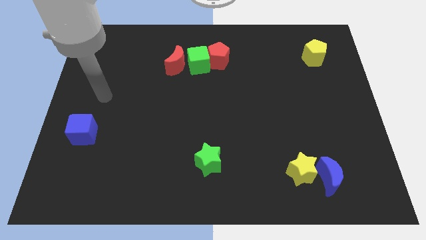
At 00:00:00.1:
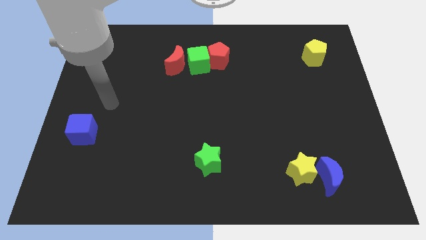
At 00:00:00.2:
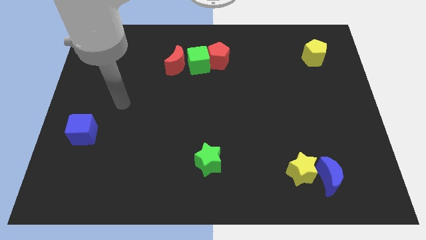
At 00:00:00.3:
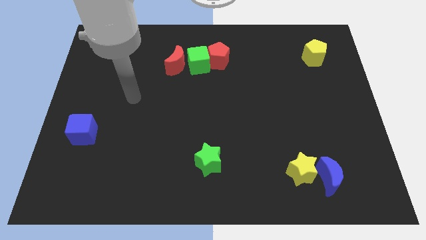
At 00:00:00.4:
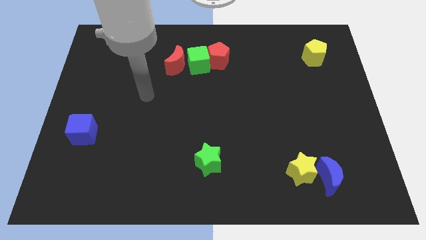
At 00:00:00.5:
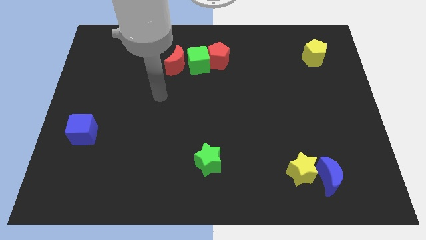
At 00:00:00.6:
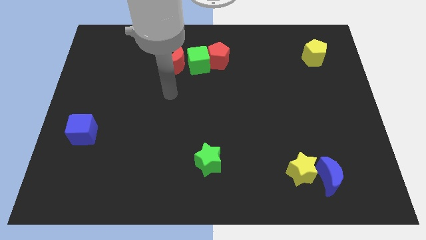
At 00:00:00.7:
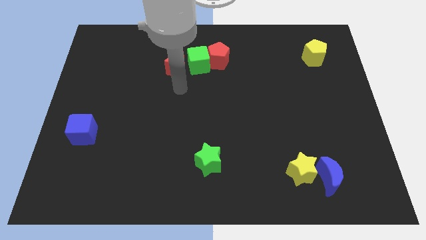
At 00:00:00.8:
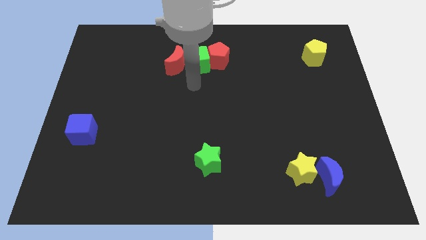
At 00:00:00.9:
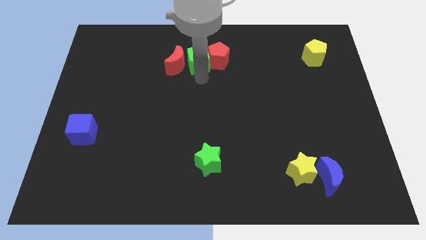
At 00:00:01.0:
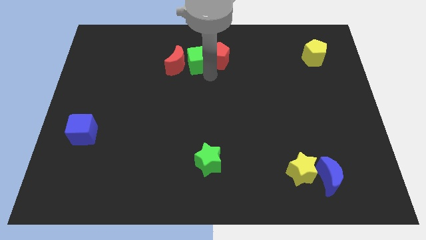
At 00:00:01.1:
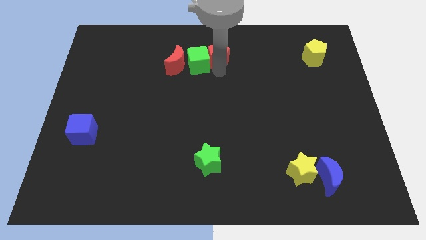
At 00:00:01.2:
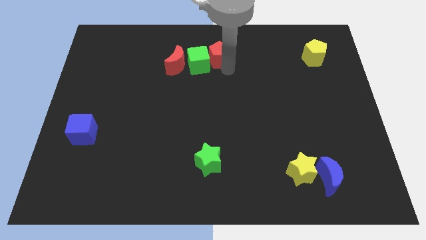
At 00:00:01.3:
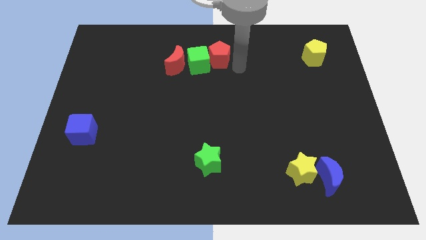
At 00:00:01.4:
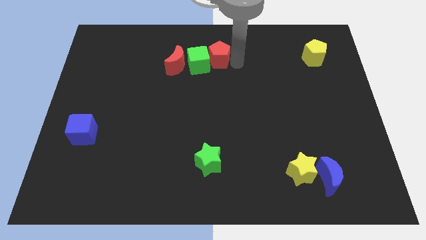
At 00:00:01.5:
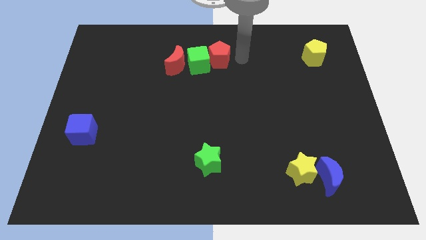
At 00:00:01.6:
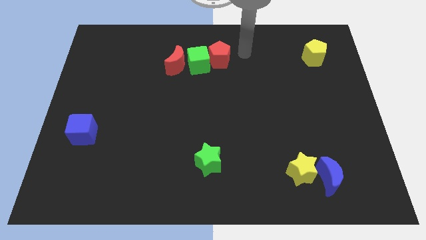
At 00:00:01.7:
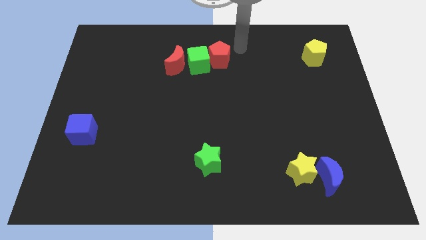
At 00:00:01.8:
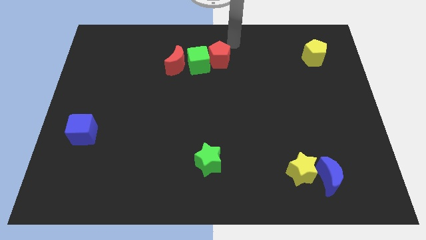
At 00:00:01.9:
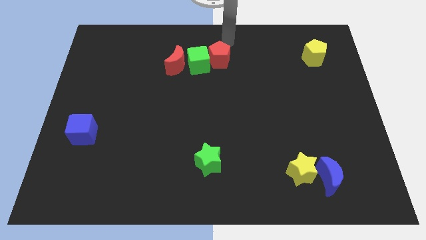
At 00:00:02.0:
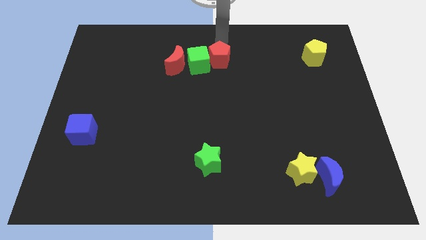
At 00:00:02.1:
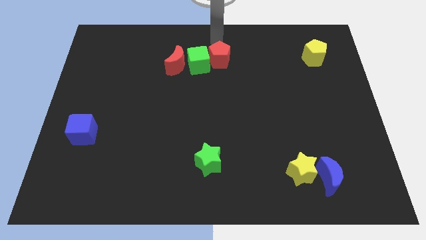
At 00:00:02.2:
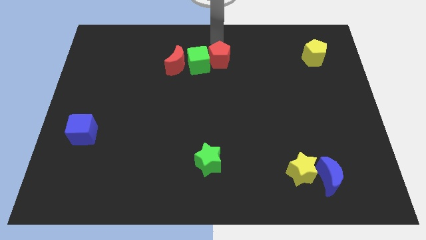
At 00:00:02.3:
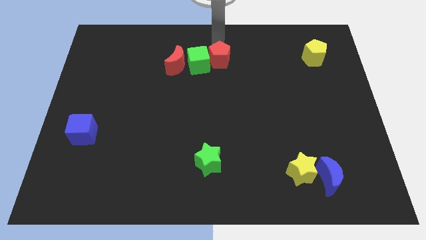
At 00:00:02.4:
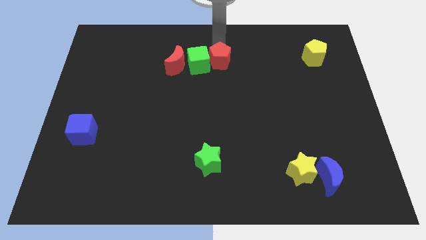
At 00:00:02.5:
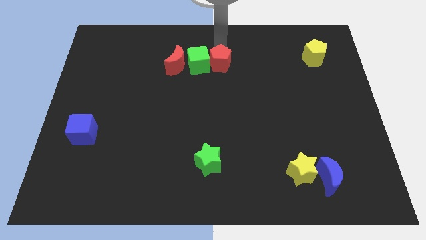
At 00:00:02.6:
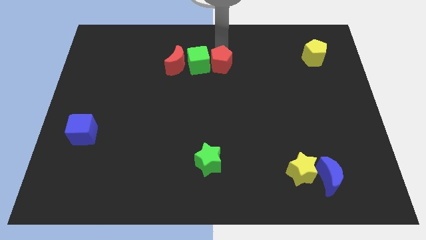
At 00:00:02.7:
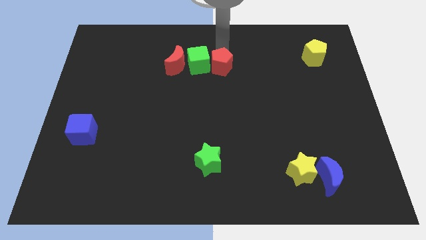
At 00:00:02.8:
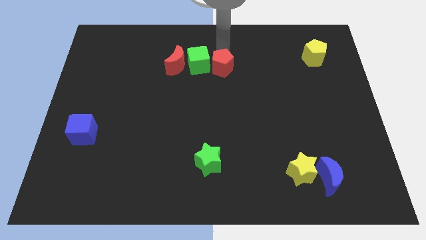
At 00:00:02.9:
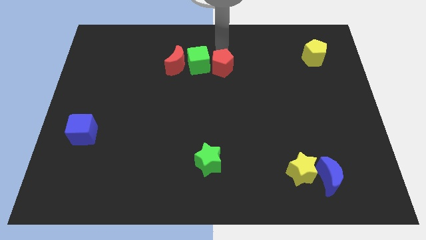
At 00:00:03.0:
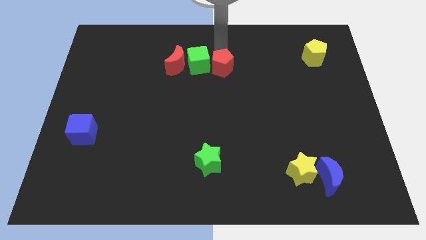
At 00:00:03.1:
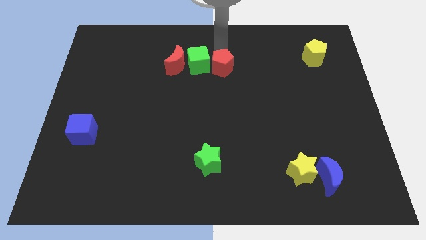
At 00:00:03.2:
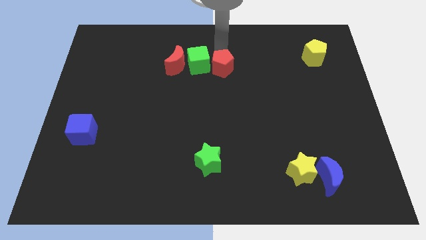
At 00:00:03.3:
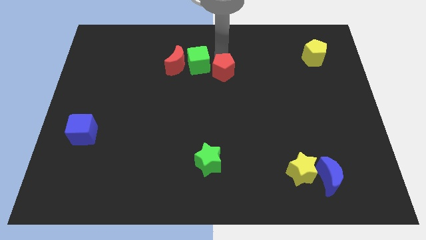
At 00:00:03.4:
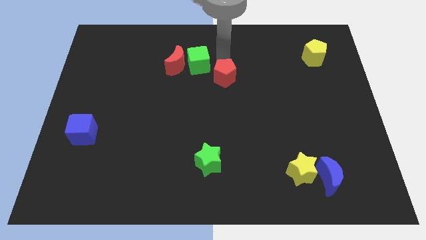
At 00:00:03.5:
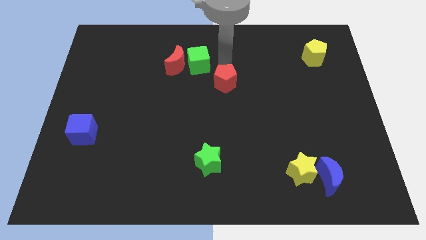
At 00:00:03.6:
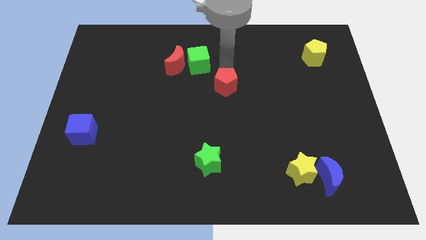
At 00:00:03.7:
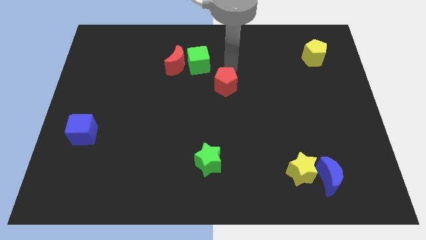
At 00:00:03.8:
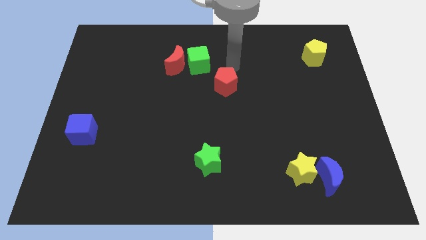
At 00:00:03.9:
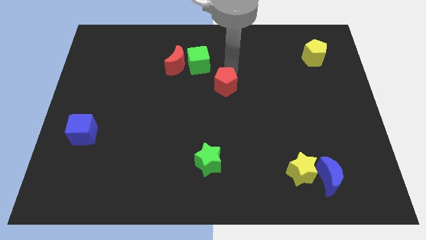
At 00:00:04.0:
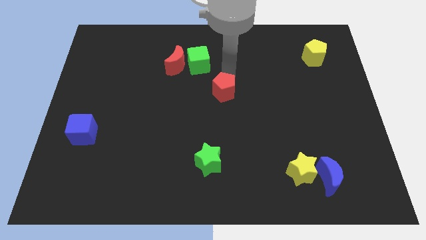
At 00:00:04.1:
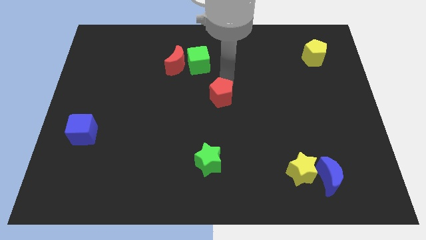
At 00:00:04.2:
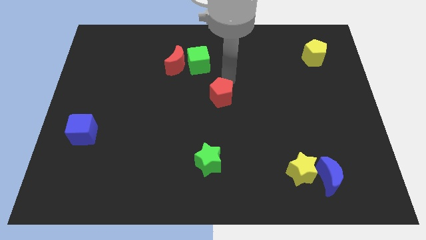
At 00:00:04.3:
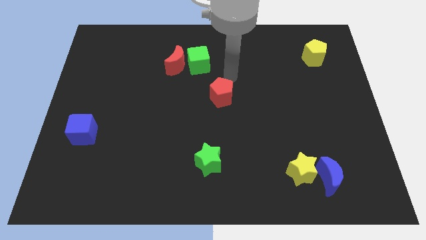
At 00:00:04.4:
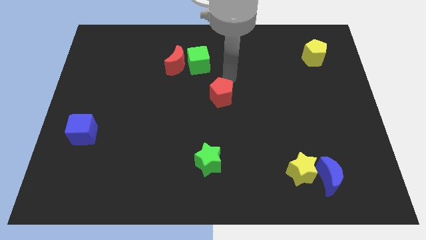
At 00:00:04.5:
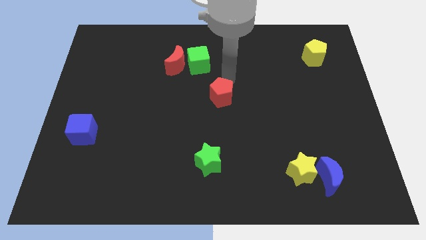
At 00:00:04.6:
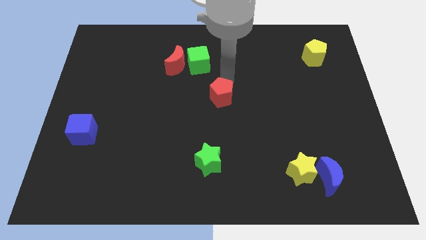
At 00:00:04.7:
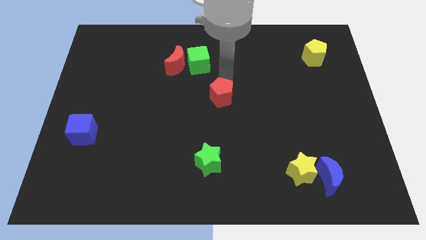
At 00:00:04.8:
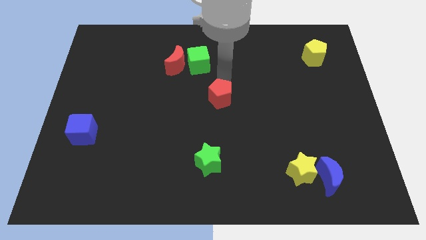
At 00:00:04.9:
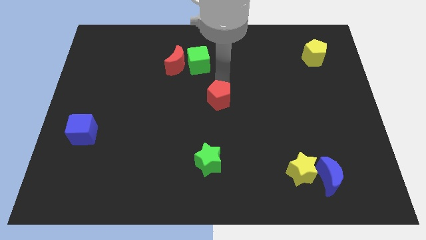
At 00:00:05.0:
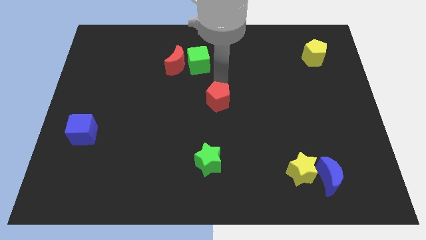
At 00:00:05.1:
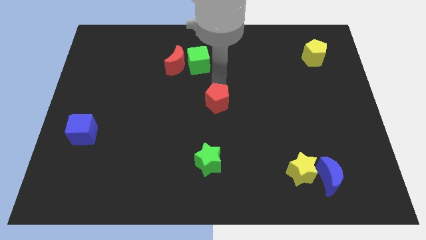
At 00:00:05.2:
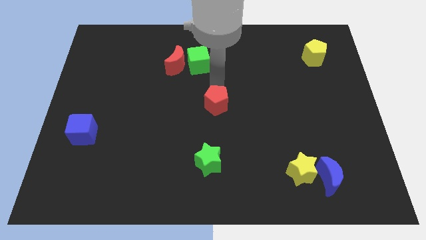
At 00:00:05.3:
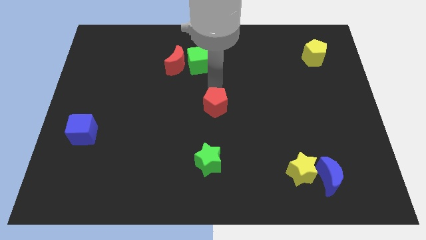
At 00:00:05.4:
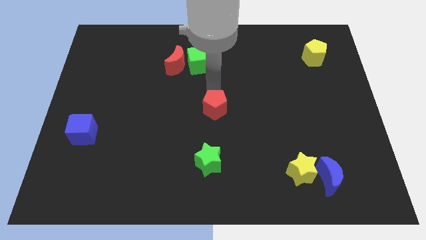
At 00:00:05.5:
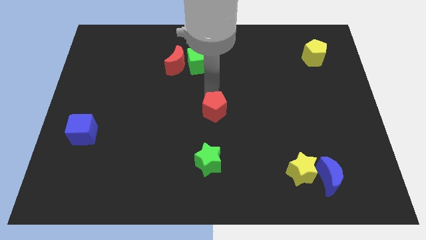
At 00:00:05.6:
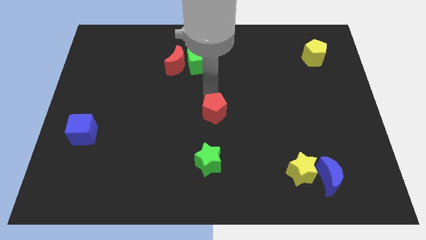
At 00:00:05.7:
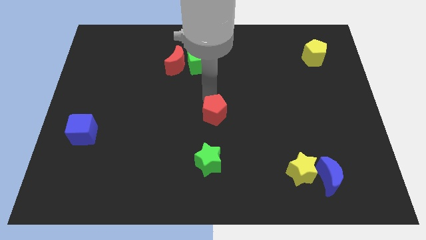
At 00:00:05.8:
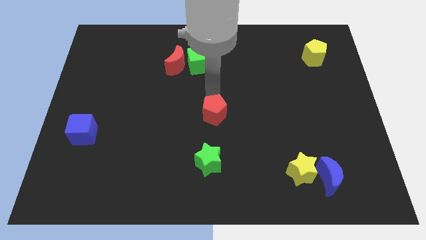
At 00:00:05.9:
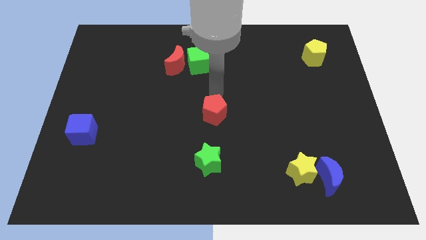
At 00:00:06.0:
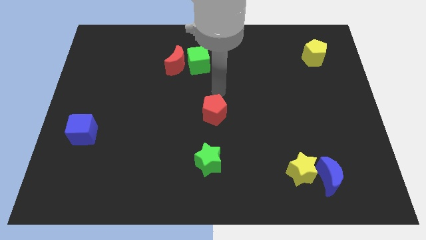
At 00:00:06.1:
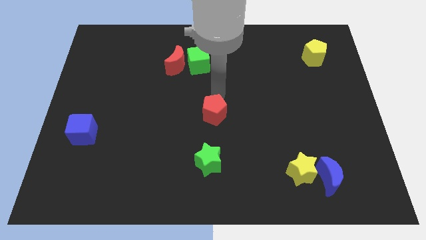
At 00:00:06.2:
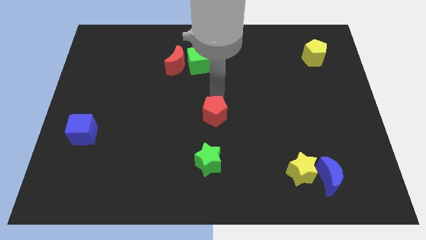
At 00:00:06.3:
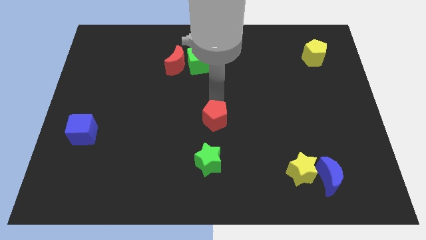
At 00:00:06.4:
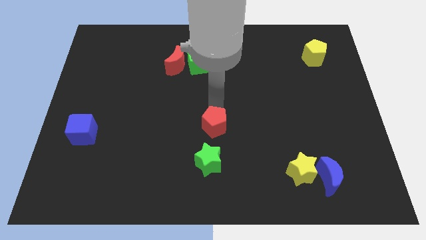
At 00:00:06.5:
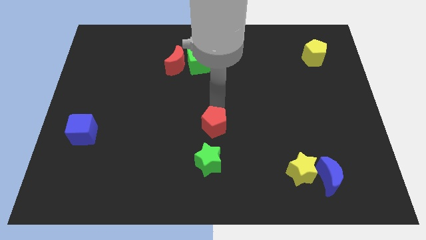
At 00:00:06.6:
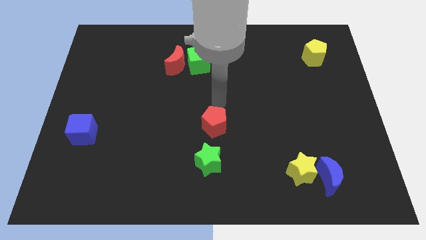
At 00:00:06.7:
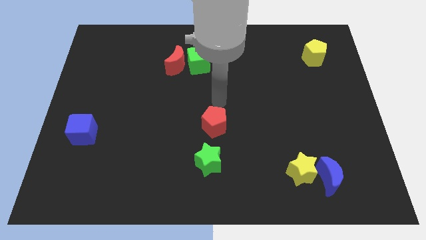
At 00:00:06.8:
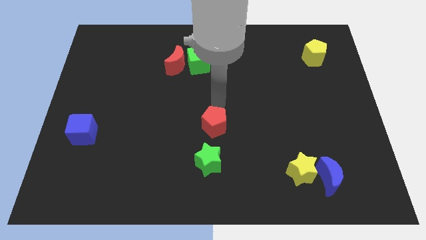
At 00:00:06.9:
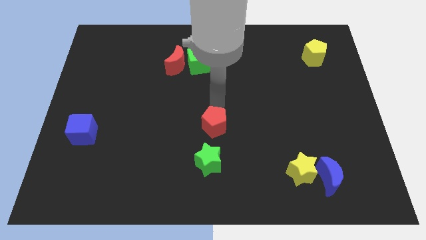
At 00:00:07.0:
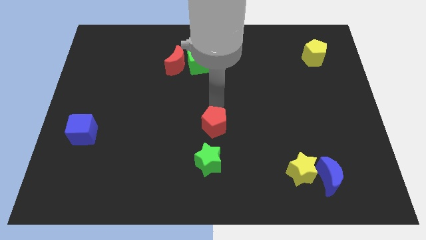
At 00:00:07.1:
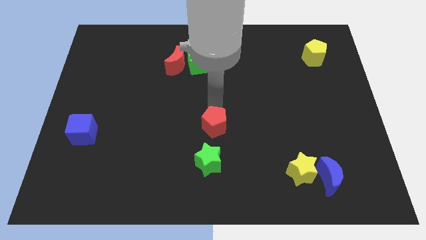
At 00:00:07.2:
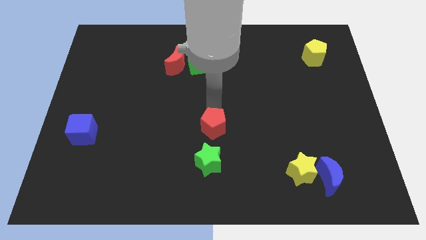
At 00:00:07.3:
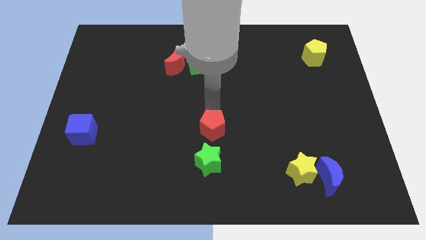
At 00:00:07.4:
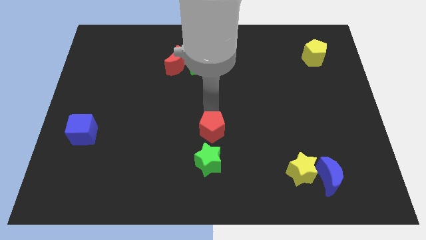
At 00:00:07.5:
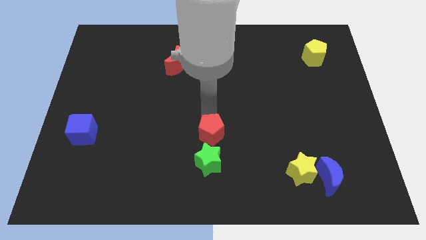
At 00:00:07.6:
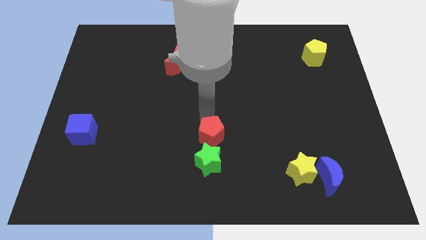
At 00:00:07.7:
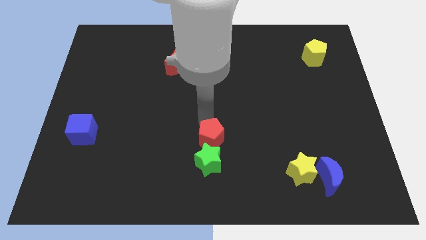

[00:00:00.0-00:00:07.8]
push the red pentagon towards the green star
